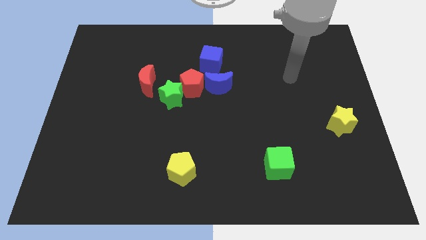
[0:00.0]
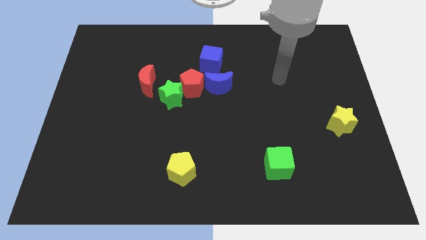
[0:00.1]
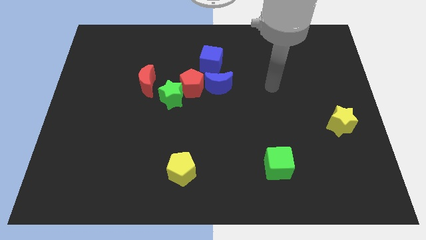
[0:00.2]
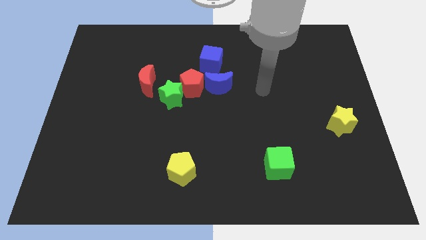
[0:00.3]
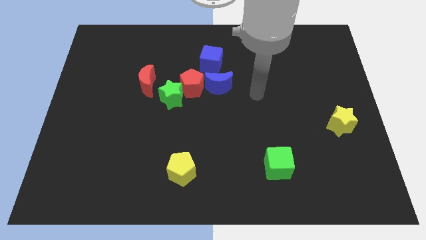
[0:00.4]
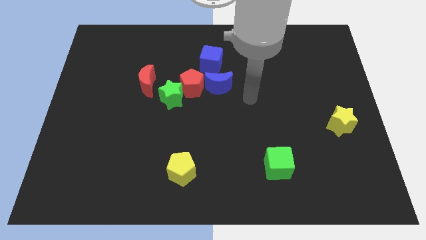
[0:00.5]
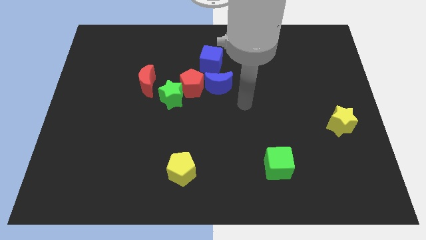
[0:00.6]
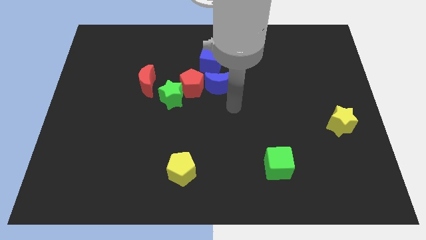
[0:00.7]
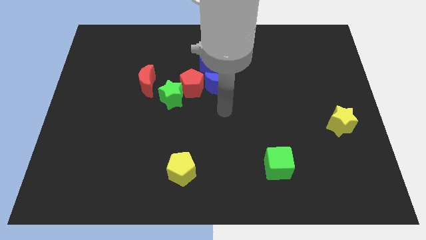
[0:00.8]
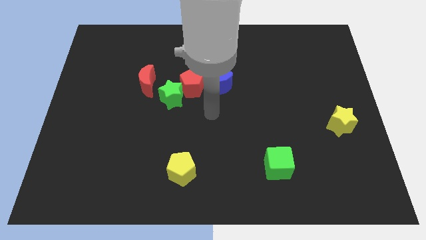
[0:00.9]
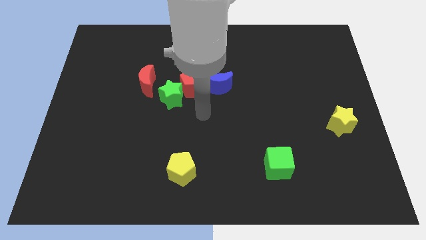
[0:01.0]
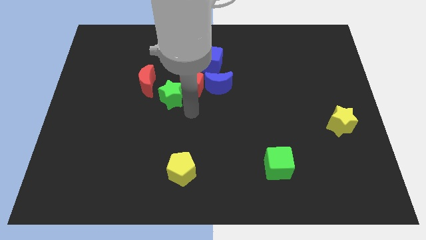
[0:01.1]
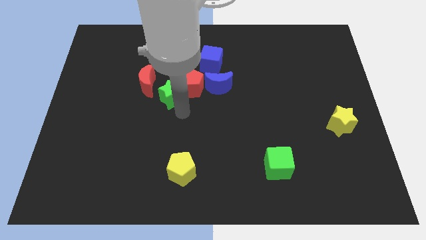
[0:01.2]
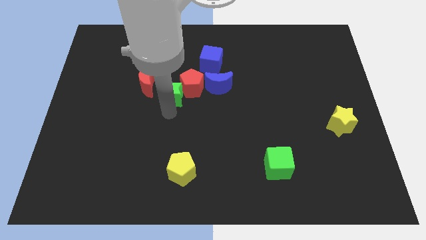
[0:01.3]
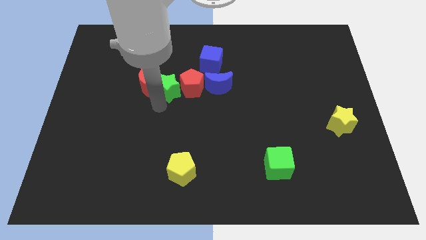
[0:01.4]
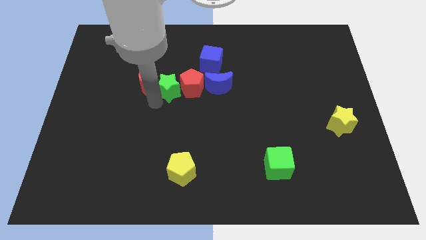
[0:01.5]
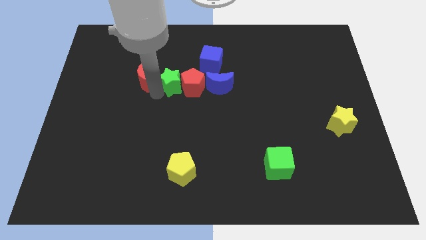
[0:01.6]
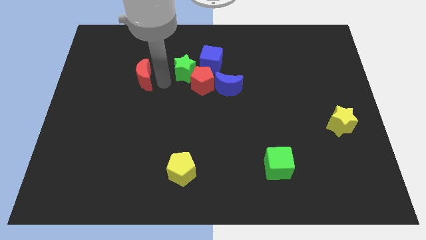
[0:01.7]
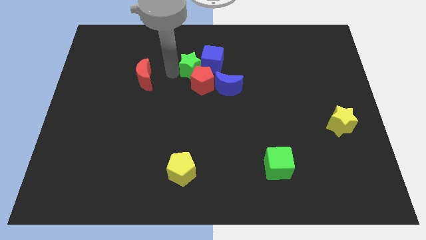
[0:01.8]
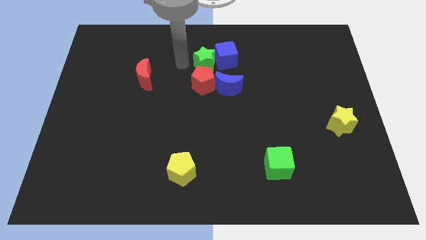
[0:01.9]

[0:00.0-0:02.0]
pull the green star apart from the red pentagon and red moon

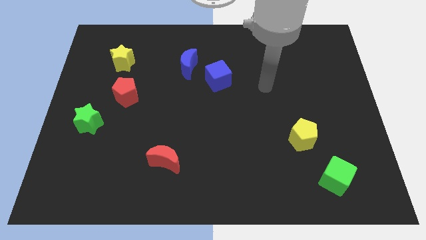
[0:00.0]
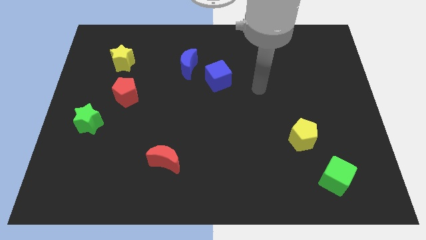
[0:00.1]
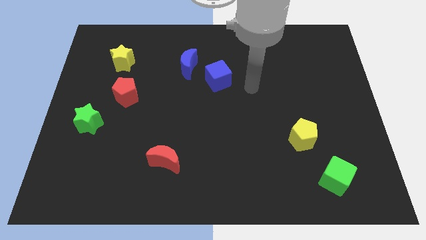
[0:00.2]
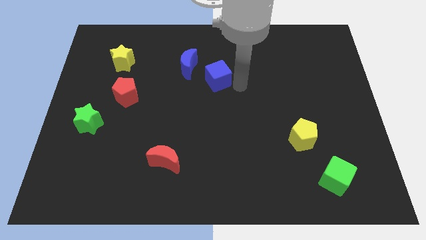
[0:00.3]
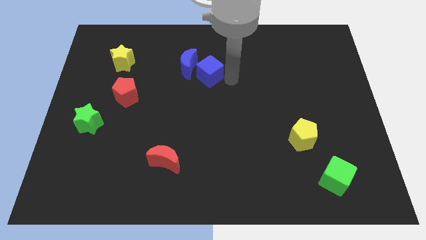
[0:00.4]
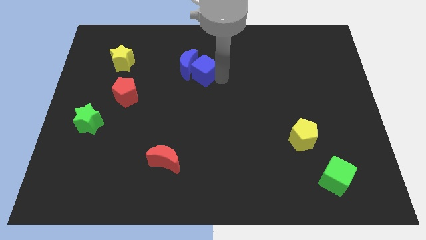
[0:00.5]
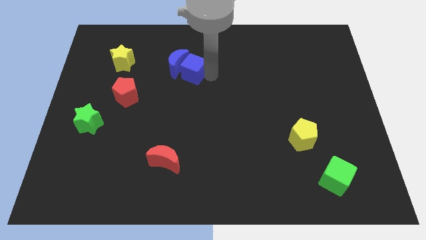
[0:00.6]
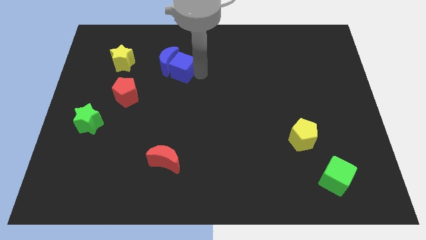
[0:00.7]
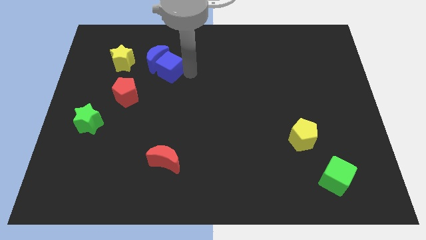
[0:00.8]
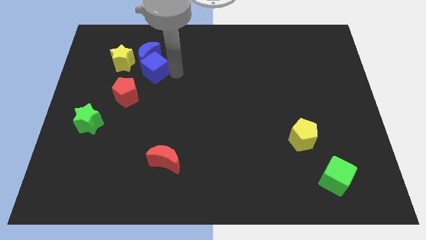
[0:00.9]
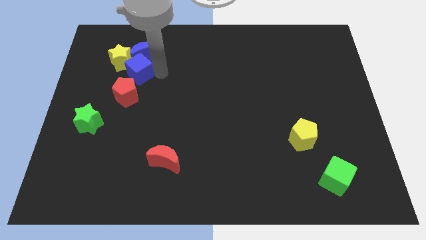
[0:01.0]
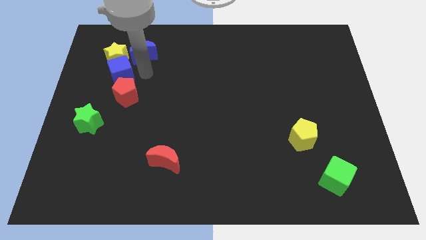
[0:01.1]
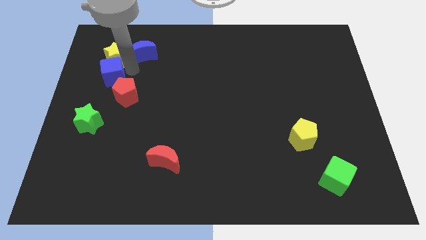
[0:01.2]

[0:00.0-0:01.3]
move the blue moon away from the blue cube

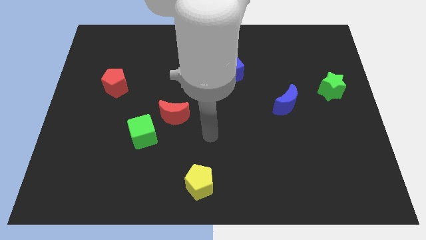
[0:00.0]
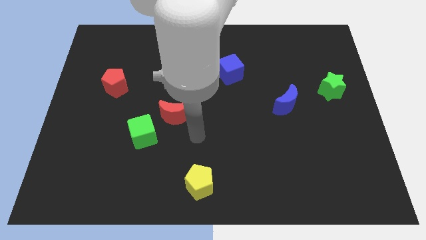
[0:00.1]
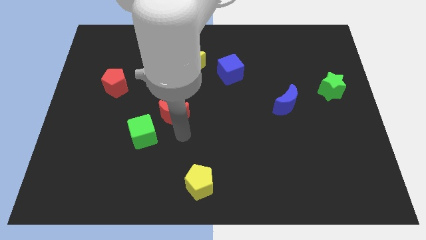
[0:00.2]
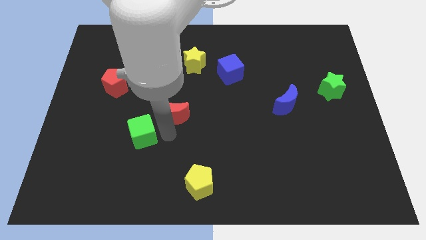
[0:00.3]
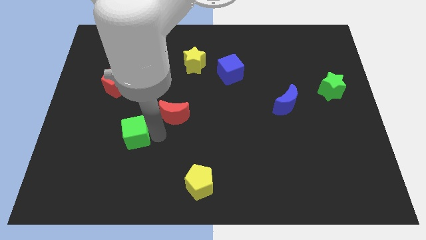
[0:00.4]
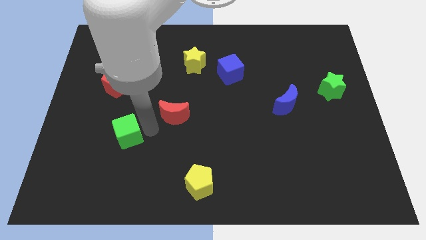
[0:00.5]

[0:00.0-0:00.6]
pull the red moon apart from the green cube

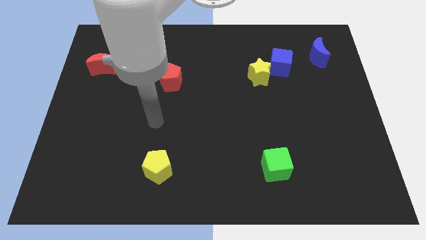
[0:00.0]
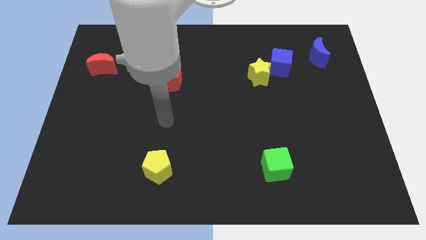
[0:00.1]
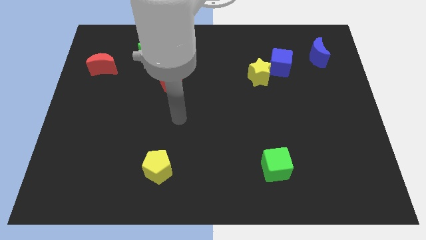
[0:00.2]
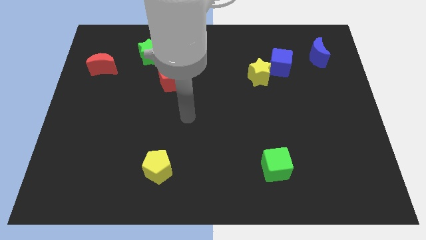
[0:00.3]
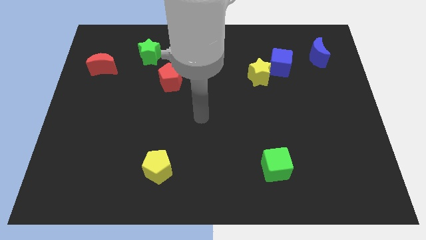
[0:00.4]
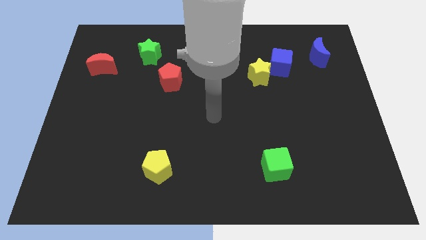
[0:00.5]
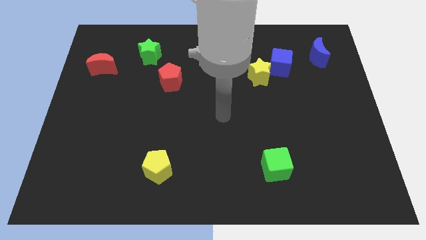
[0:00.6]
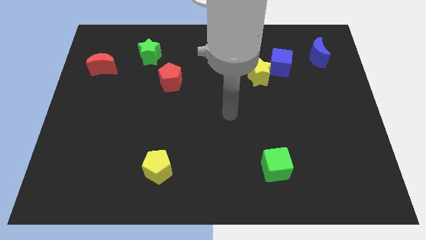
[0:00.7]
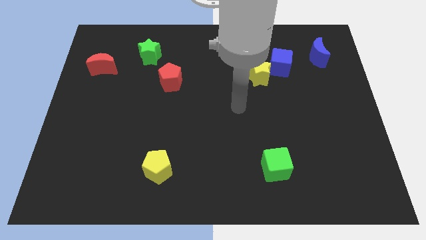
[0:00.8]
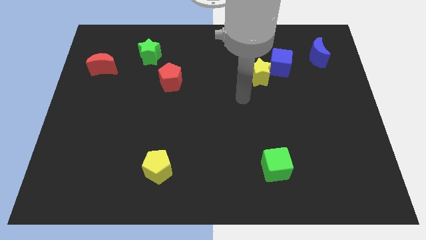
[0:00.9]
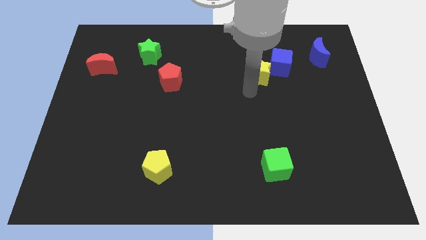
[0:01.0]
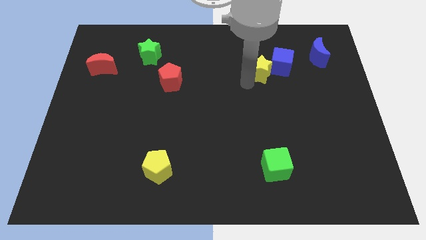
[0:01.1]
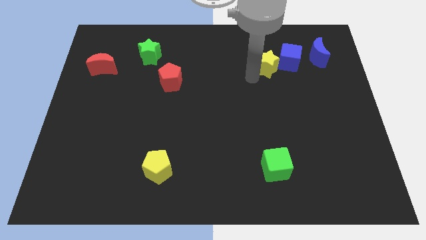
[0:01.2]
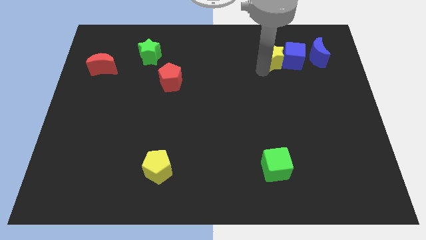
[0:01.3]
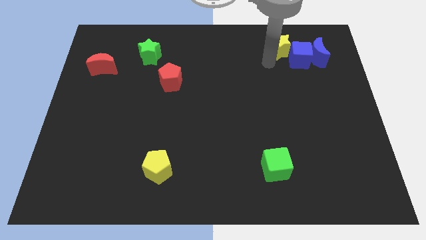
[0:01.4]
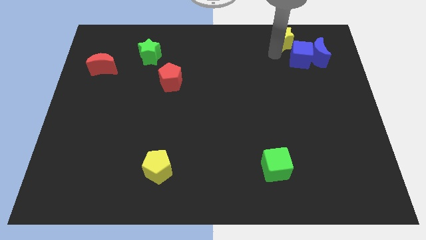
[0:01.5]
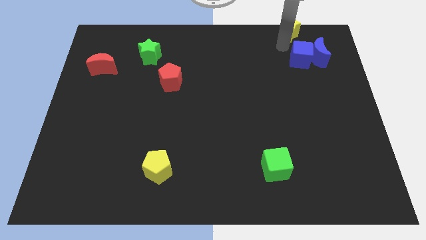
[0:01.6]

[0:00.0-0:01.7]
move the blue cube away from the yellow star

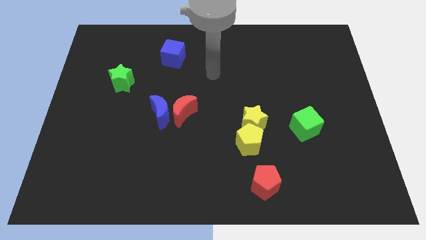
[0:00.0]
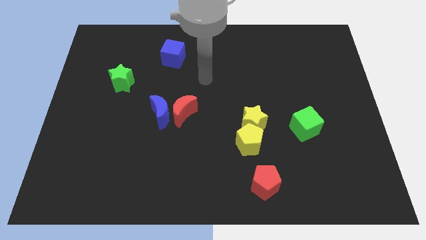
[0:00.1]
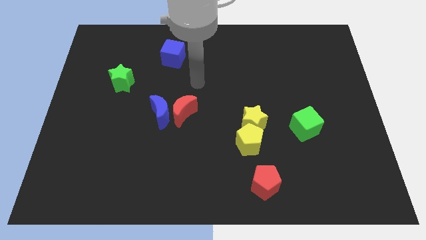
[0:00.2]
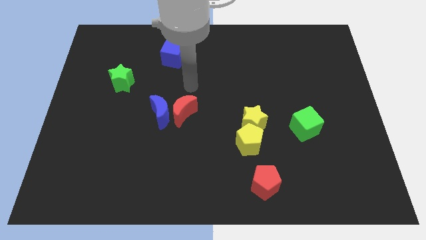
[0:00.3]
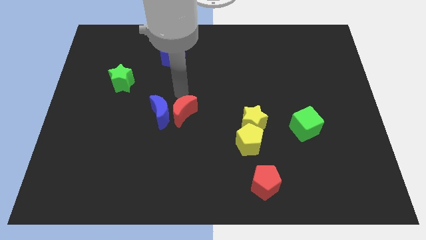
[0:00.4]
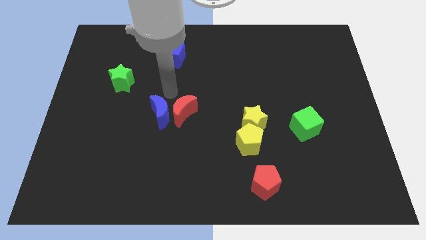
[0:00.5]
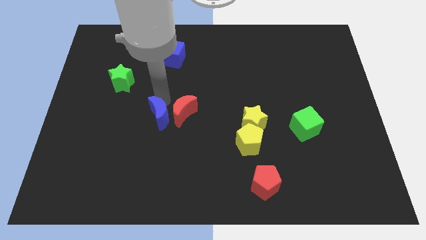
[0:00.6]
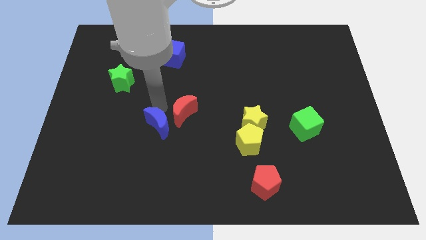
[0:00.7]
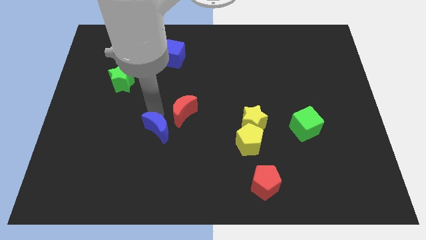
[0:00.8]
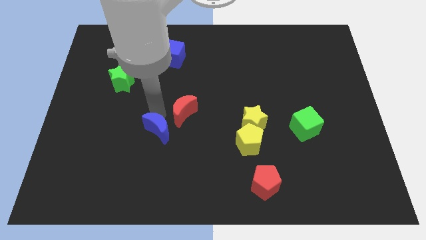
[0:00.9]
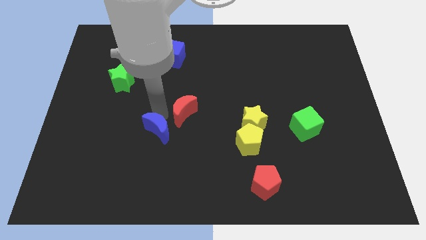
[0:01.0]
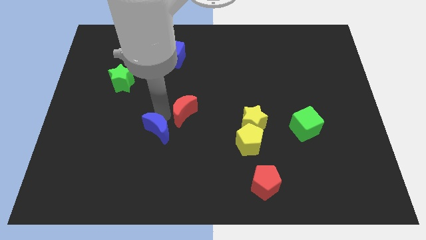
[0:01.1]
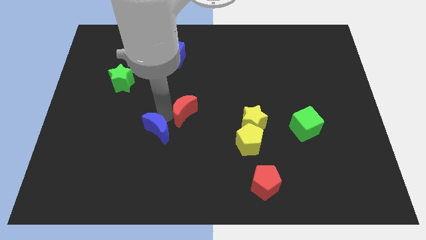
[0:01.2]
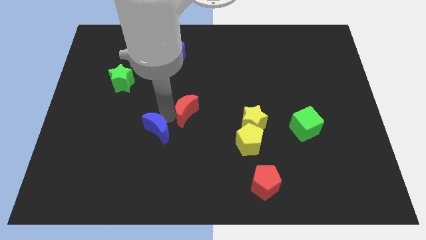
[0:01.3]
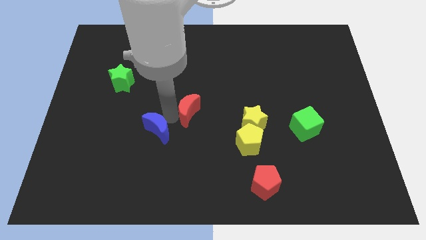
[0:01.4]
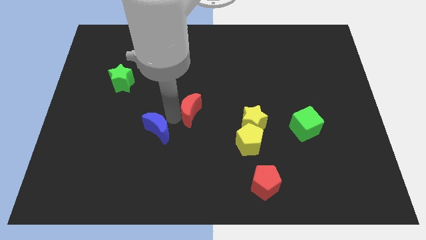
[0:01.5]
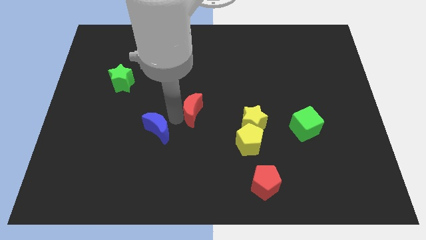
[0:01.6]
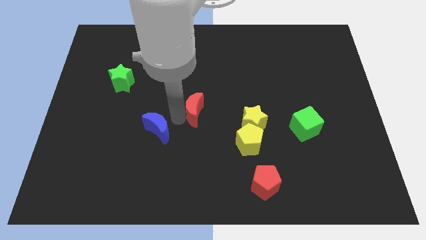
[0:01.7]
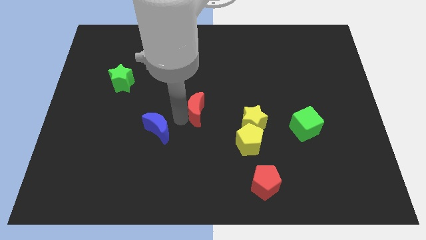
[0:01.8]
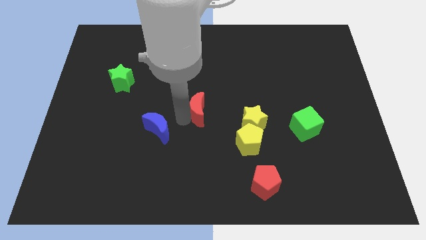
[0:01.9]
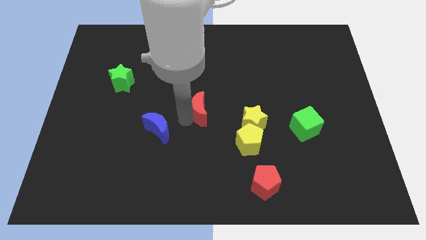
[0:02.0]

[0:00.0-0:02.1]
separate the red moon from the blue moon

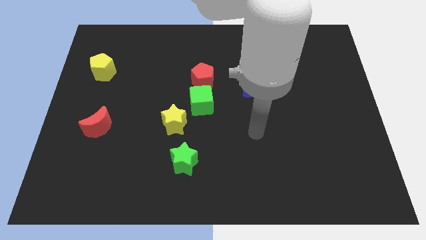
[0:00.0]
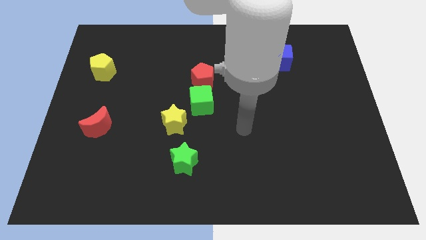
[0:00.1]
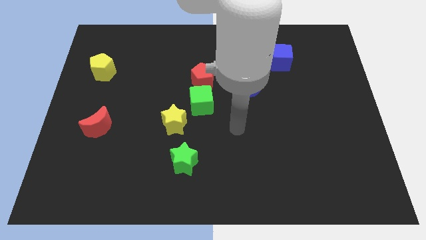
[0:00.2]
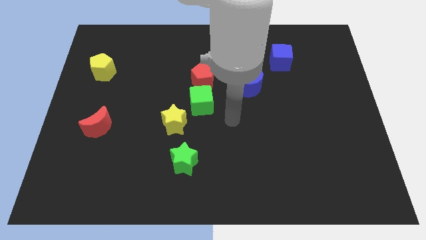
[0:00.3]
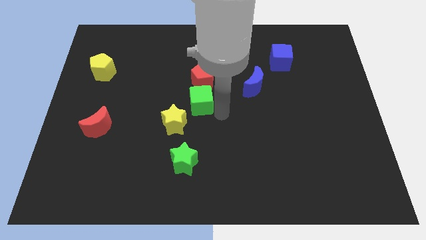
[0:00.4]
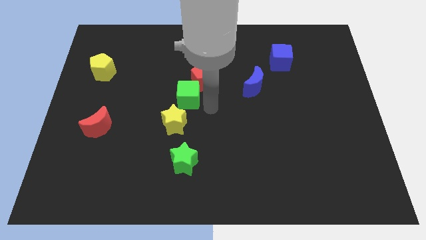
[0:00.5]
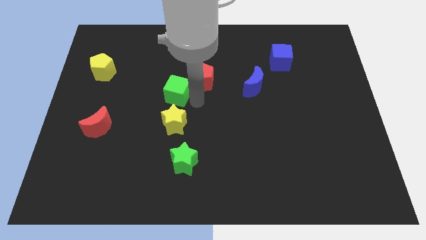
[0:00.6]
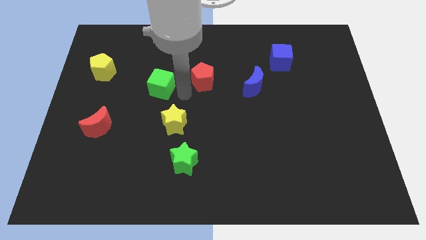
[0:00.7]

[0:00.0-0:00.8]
pull the red pentagon apart from the green cube

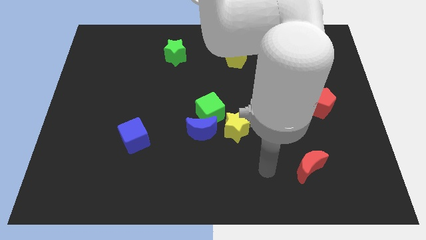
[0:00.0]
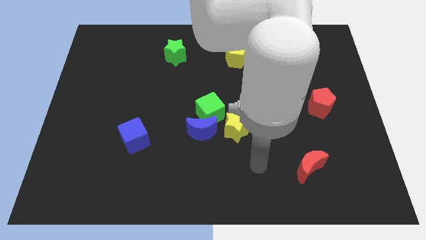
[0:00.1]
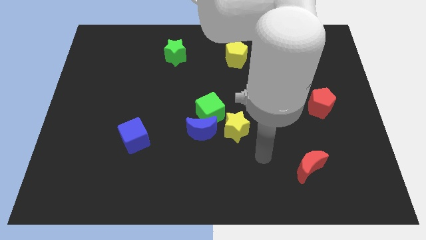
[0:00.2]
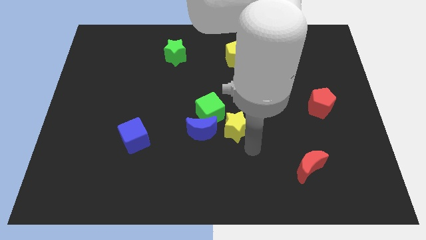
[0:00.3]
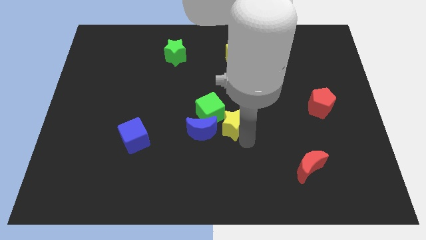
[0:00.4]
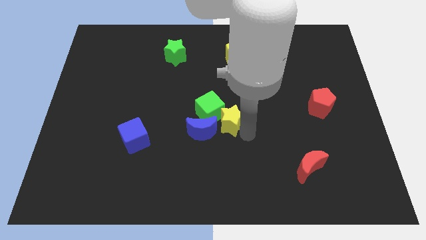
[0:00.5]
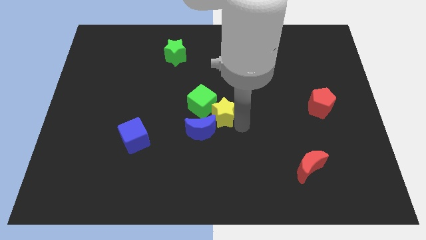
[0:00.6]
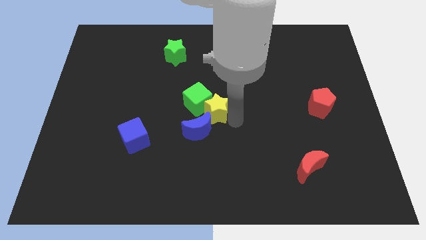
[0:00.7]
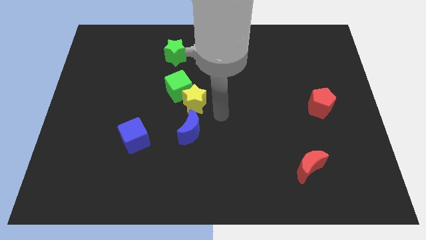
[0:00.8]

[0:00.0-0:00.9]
separate the blue moon from the green cube and yellow star
